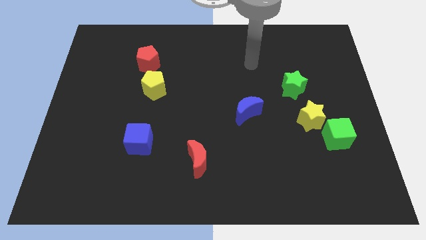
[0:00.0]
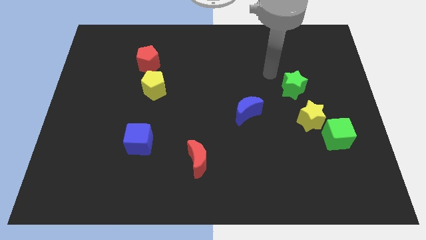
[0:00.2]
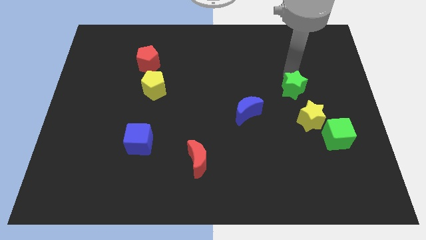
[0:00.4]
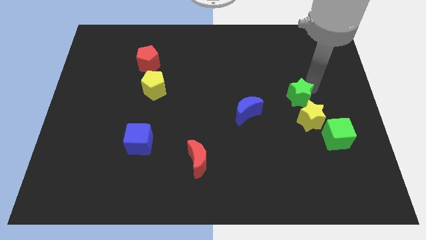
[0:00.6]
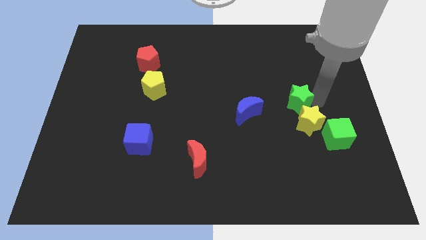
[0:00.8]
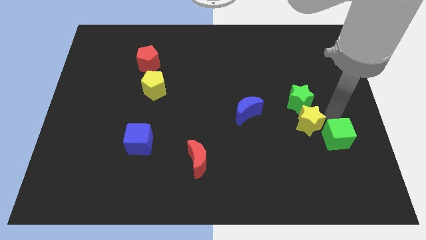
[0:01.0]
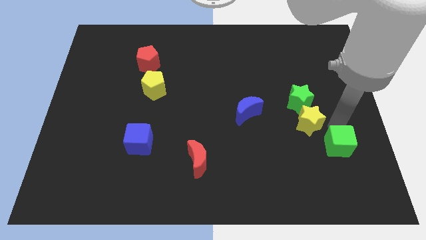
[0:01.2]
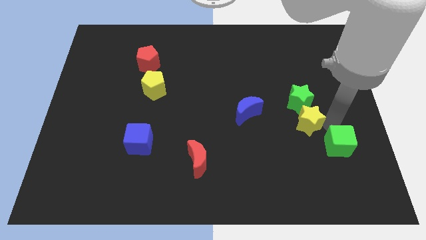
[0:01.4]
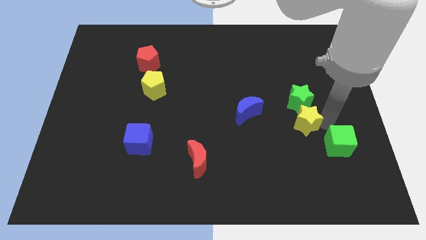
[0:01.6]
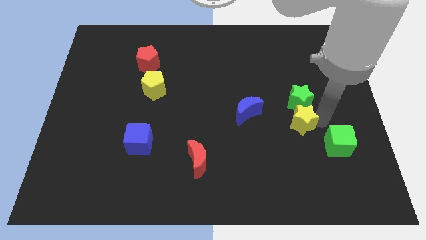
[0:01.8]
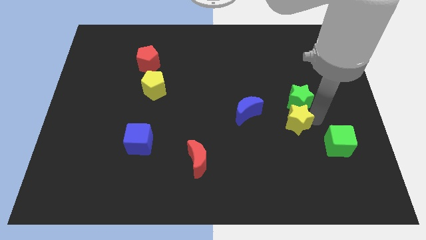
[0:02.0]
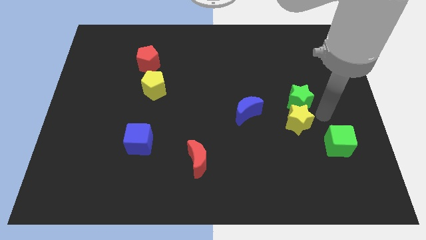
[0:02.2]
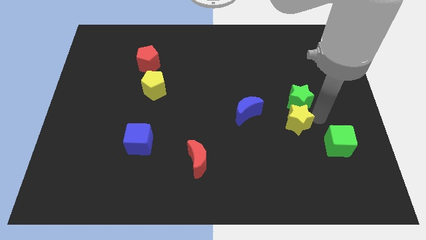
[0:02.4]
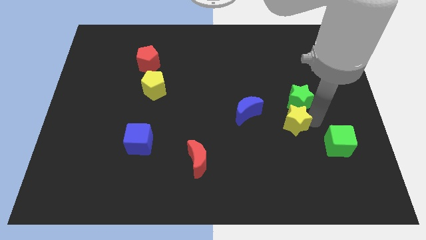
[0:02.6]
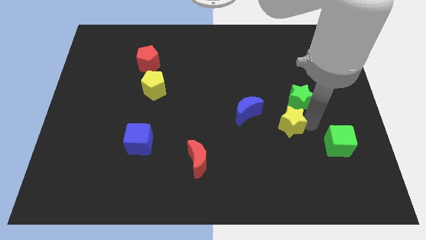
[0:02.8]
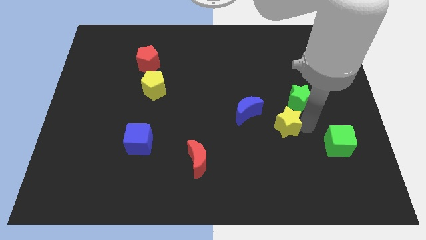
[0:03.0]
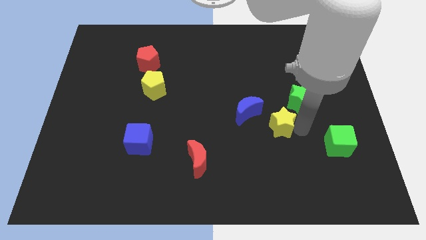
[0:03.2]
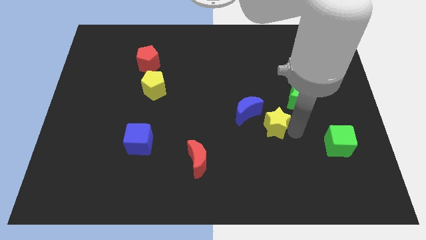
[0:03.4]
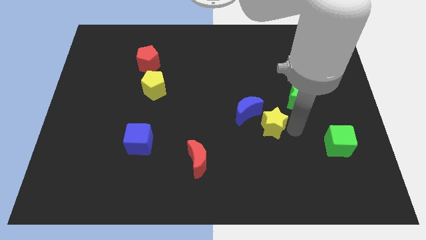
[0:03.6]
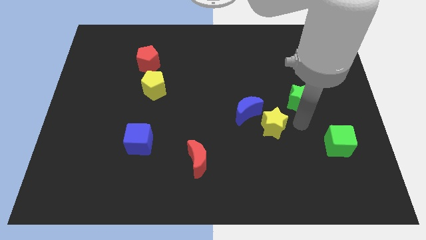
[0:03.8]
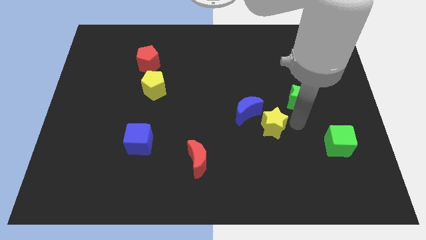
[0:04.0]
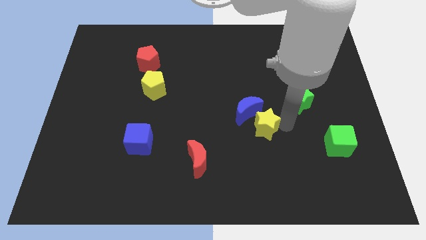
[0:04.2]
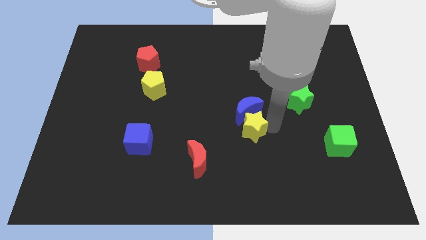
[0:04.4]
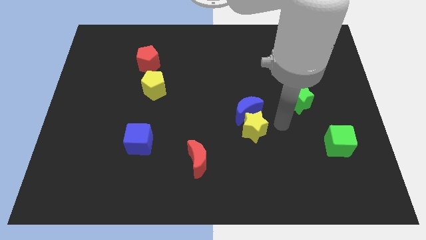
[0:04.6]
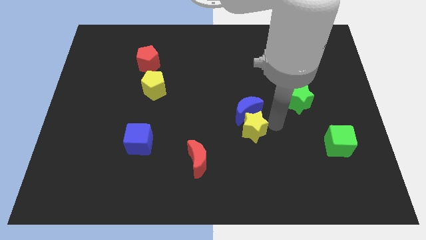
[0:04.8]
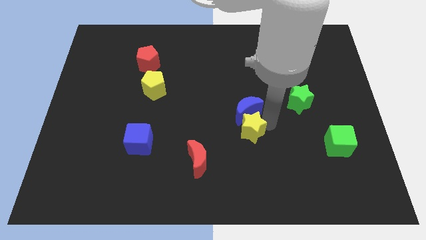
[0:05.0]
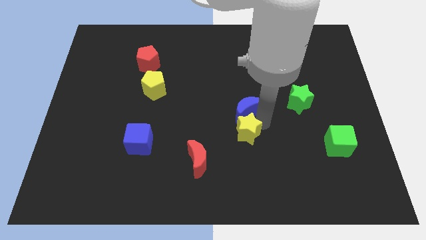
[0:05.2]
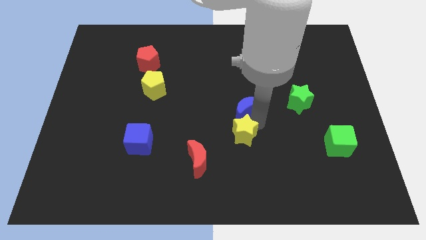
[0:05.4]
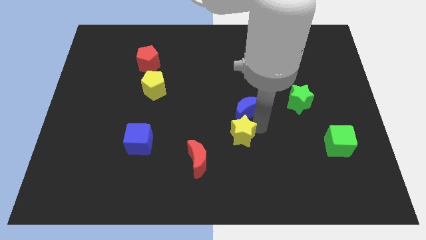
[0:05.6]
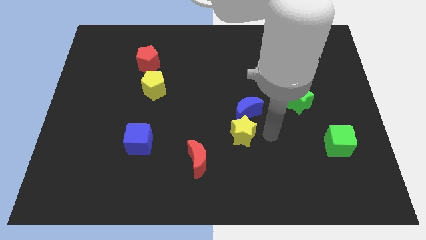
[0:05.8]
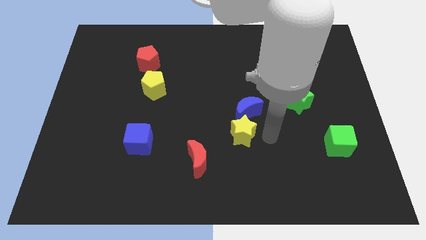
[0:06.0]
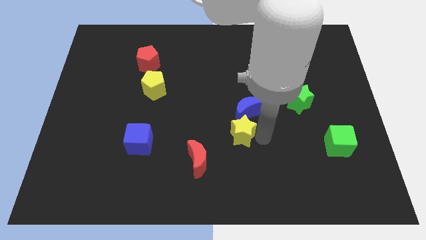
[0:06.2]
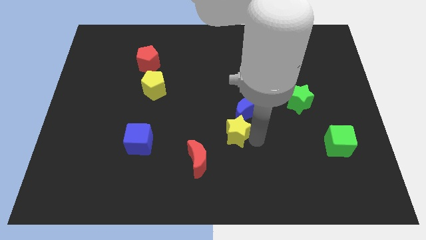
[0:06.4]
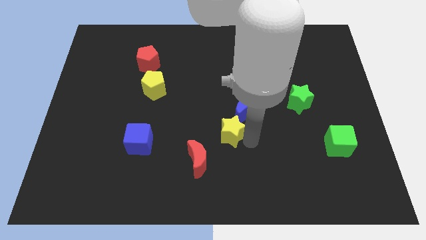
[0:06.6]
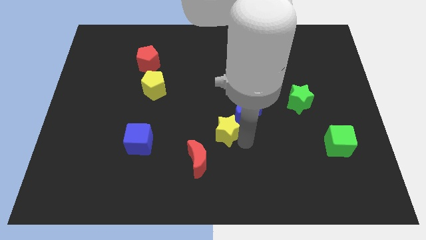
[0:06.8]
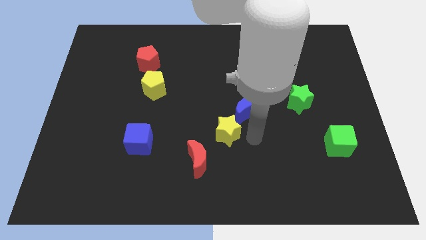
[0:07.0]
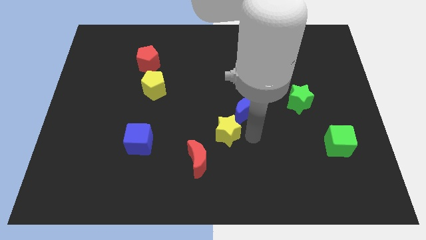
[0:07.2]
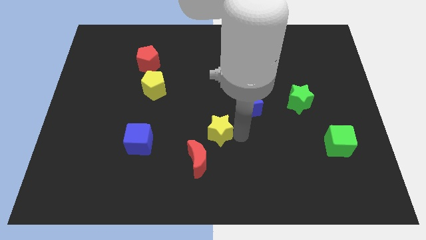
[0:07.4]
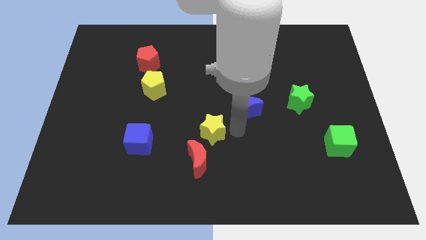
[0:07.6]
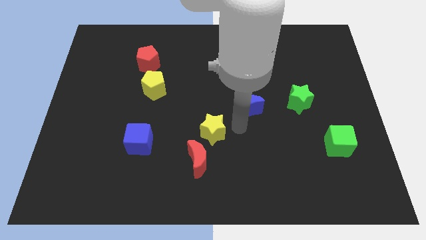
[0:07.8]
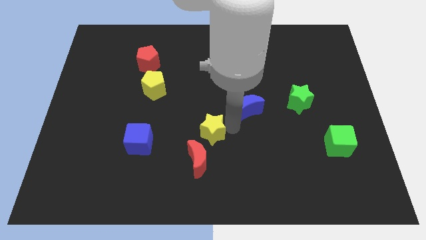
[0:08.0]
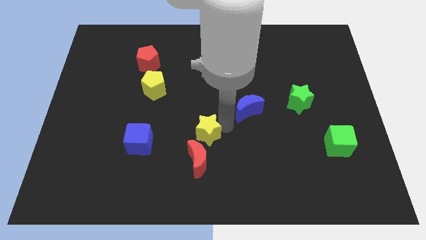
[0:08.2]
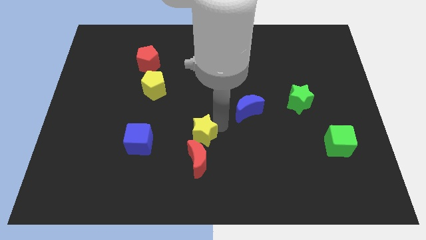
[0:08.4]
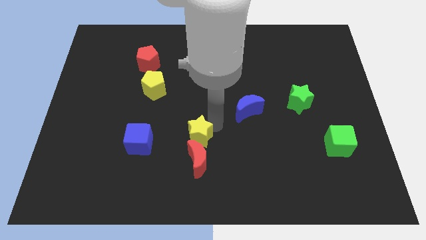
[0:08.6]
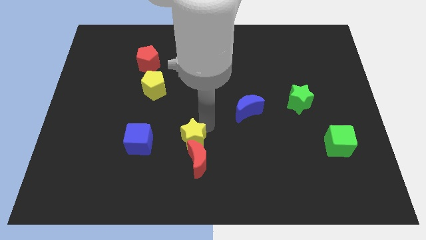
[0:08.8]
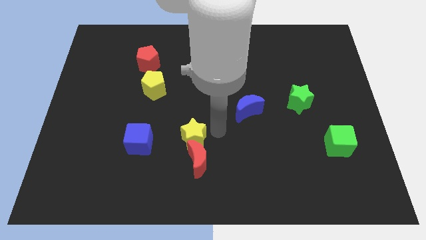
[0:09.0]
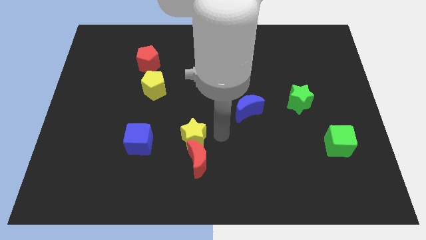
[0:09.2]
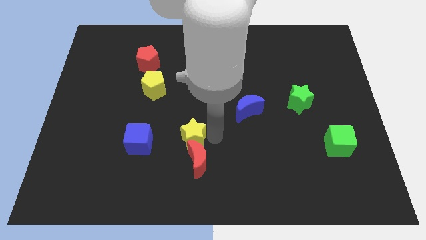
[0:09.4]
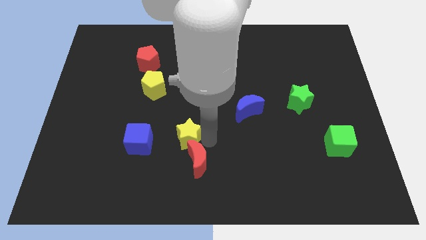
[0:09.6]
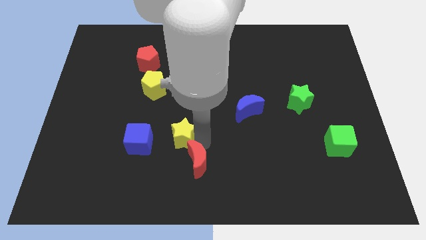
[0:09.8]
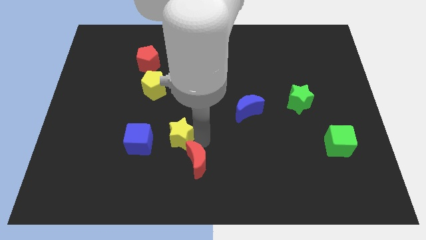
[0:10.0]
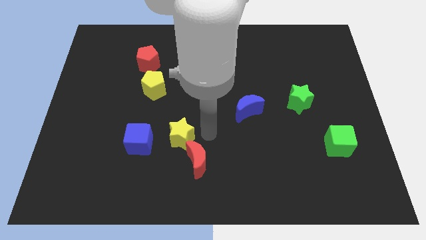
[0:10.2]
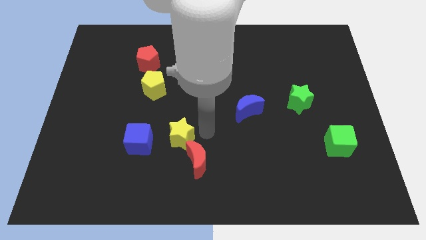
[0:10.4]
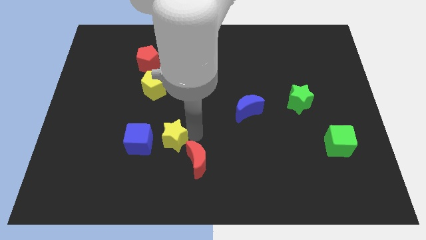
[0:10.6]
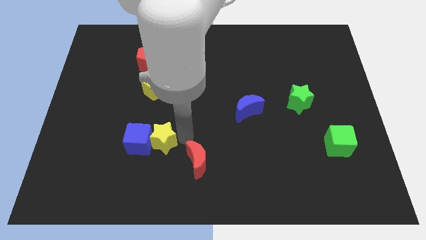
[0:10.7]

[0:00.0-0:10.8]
put the yellow star next to the blue cube

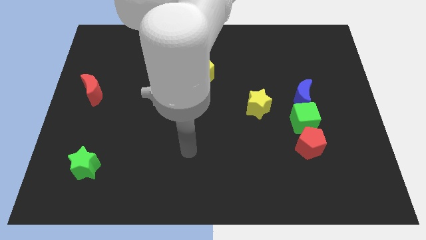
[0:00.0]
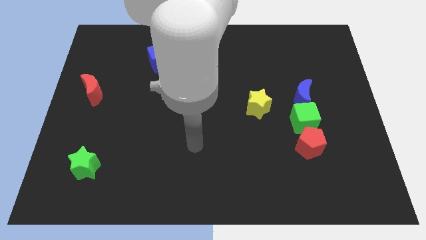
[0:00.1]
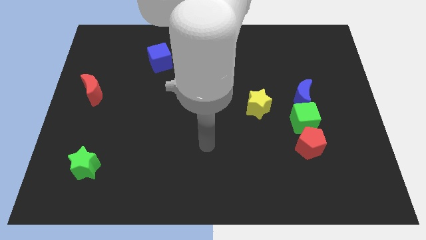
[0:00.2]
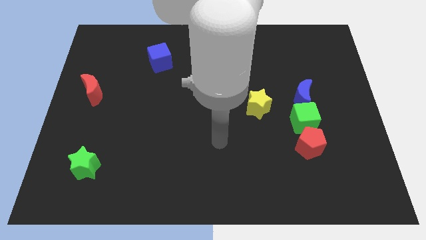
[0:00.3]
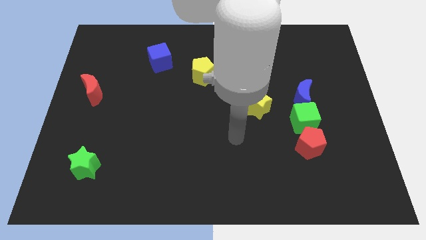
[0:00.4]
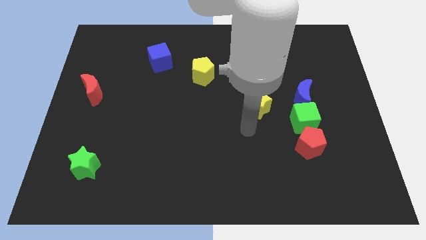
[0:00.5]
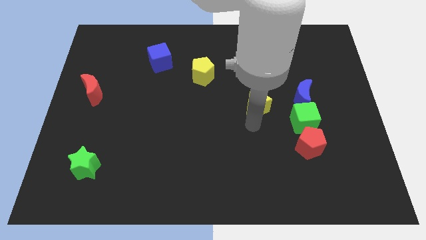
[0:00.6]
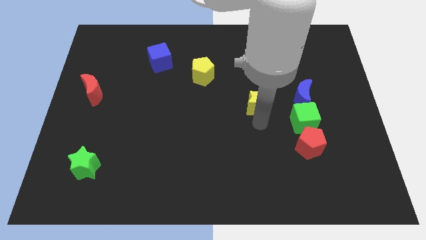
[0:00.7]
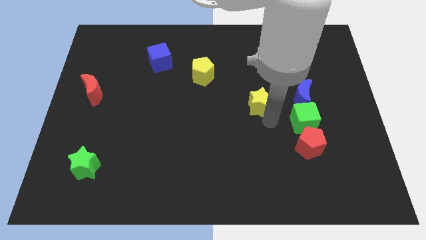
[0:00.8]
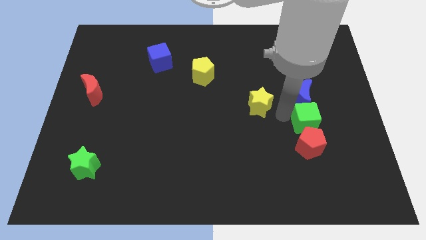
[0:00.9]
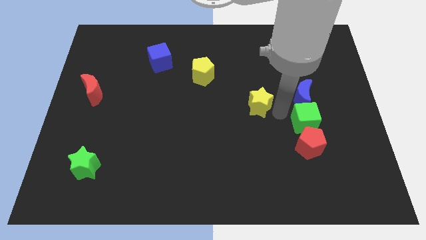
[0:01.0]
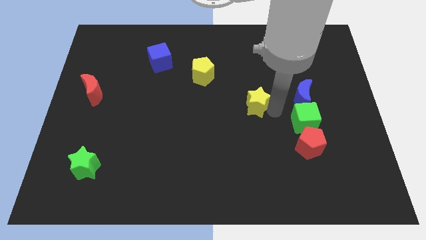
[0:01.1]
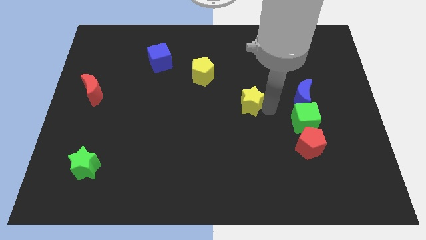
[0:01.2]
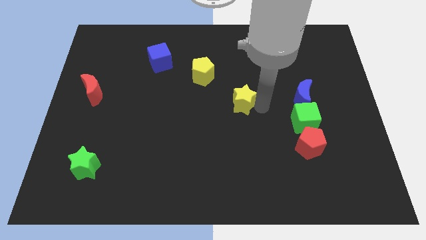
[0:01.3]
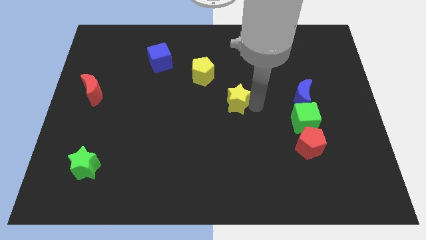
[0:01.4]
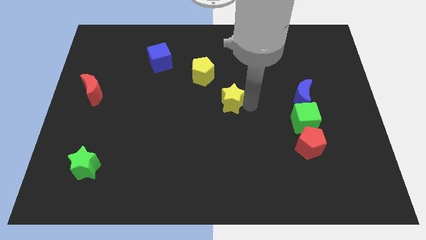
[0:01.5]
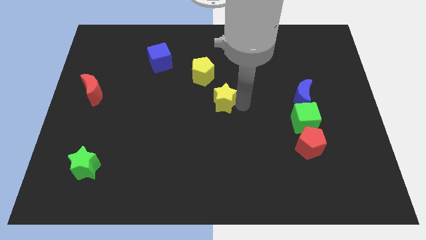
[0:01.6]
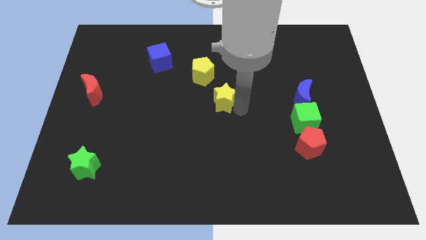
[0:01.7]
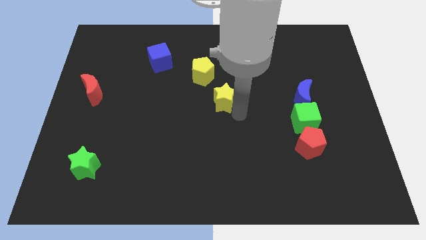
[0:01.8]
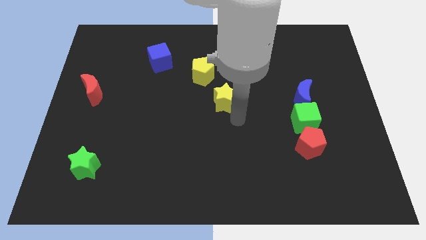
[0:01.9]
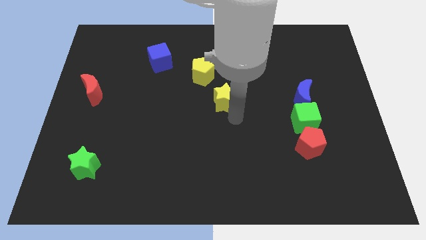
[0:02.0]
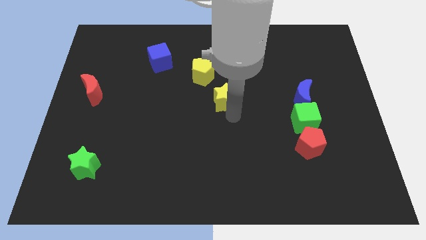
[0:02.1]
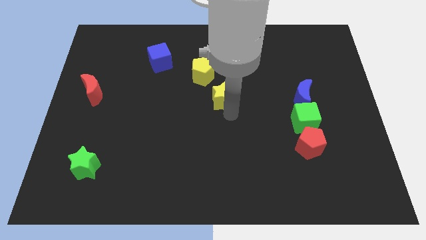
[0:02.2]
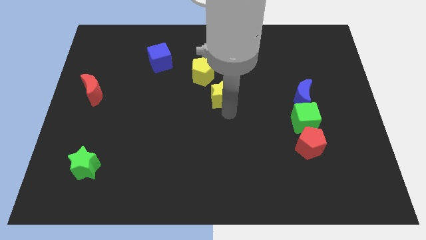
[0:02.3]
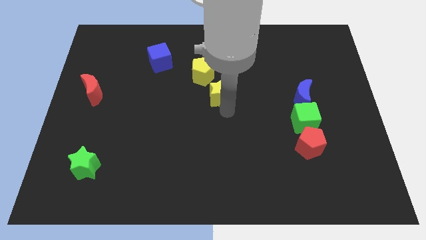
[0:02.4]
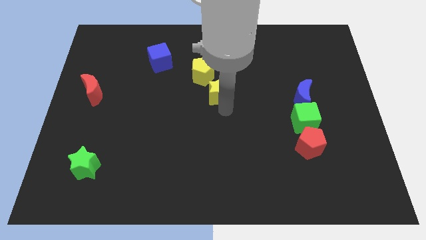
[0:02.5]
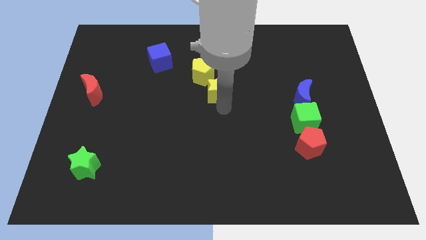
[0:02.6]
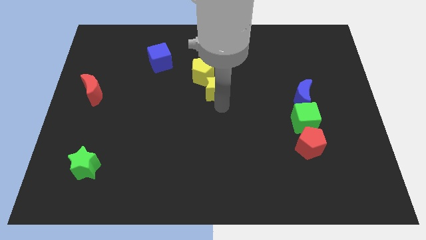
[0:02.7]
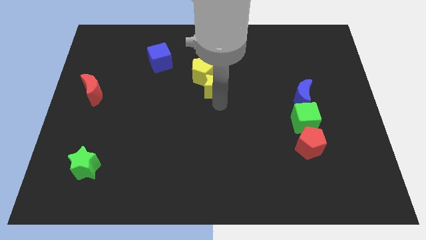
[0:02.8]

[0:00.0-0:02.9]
put the yellow star towards the yellow pentagon
